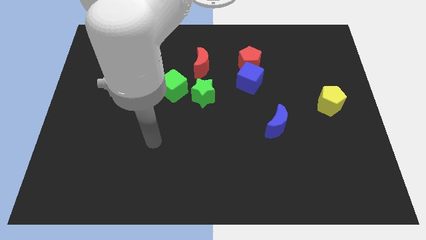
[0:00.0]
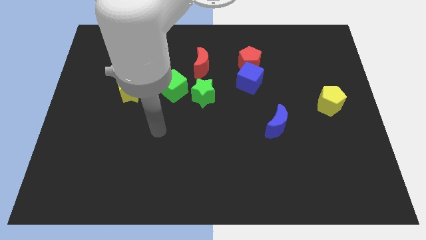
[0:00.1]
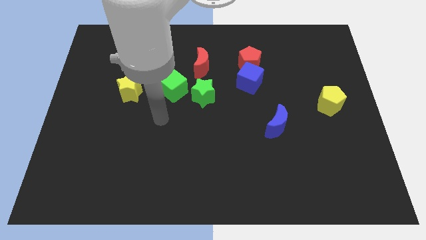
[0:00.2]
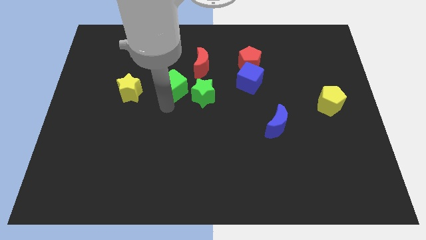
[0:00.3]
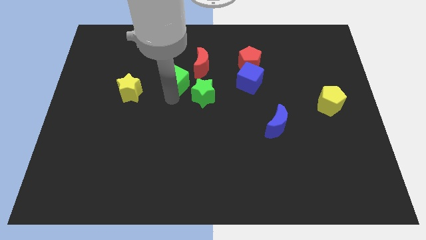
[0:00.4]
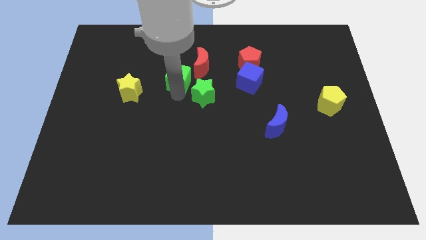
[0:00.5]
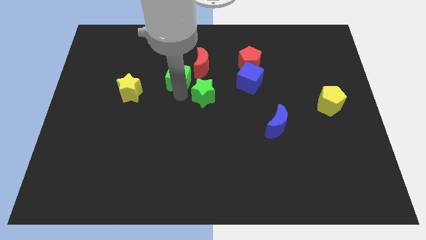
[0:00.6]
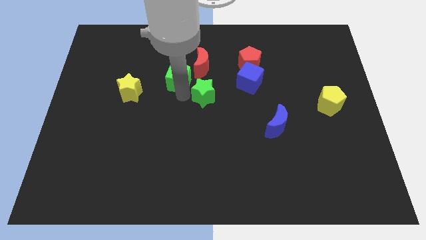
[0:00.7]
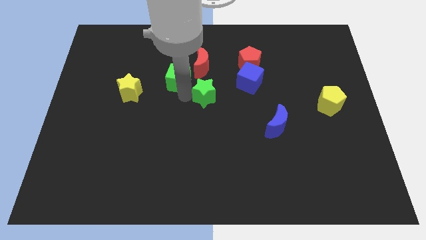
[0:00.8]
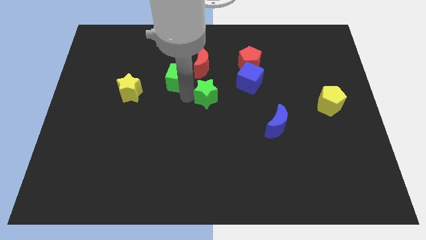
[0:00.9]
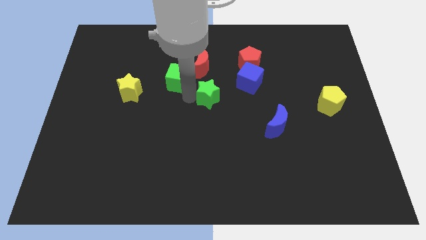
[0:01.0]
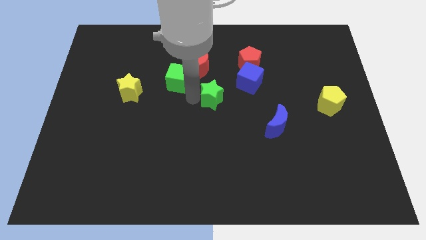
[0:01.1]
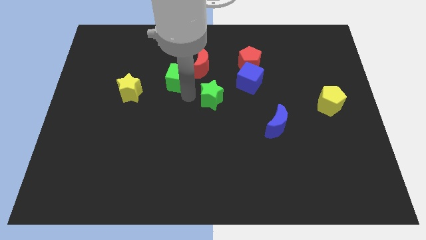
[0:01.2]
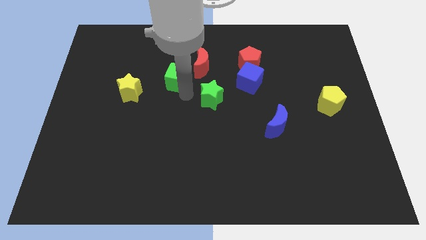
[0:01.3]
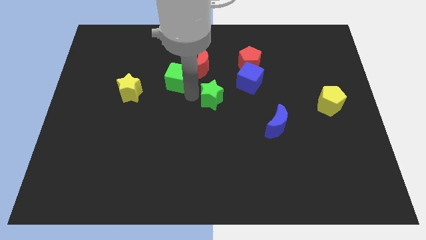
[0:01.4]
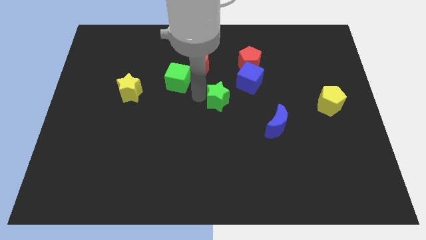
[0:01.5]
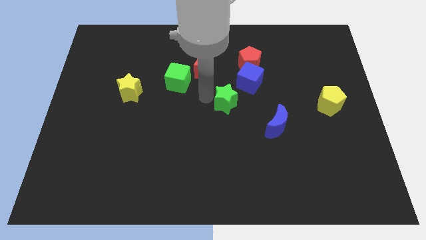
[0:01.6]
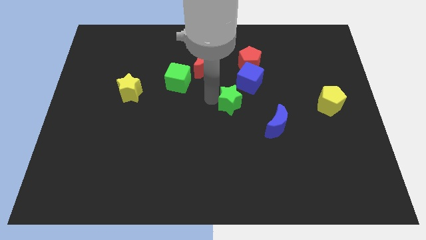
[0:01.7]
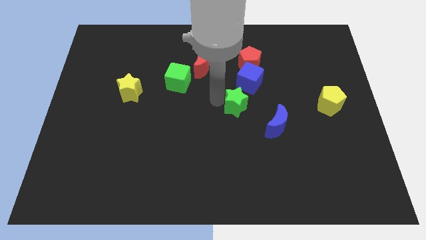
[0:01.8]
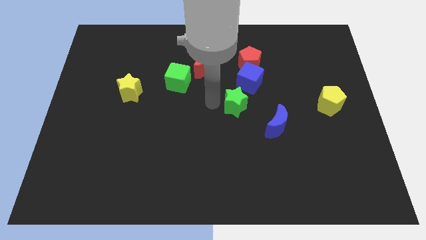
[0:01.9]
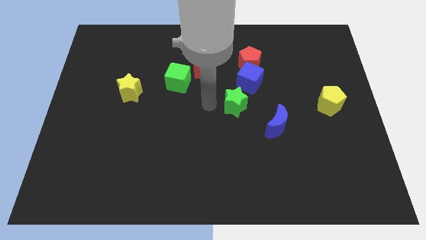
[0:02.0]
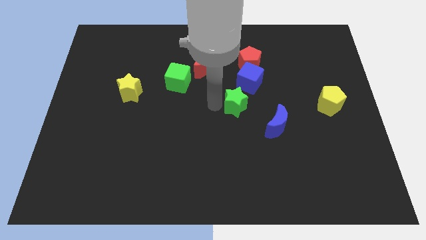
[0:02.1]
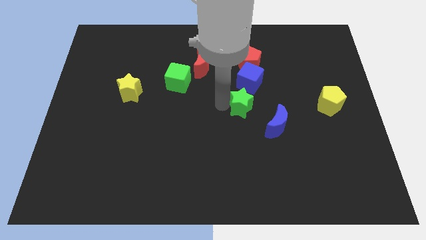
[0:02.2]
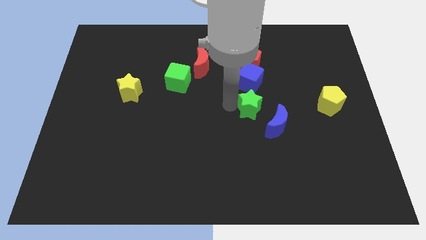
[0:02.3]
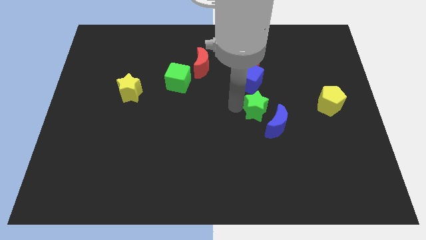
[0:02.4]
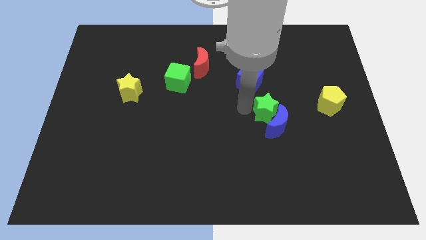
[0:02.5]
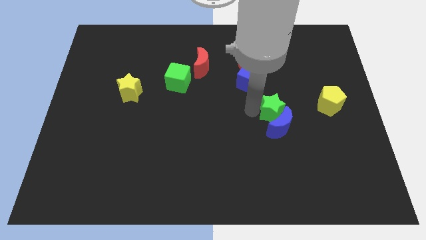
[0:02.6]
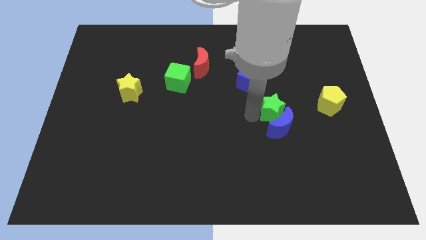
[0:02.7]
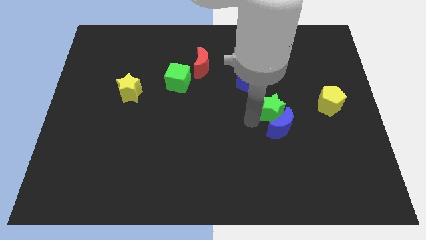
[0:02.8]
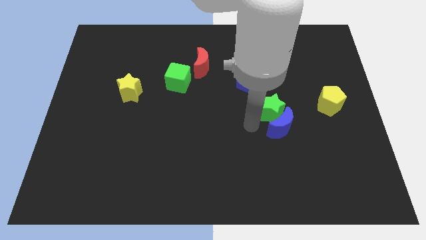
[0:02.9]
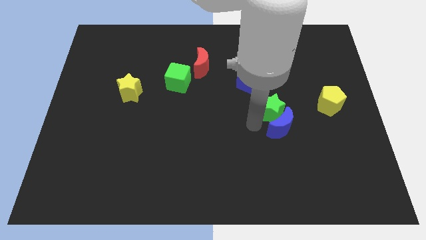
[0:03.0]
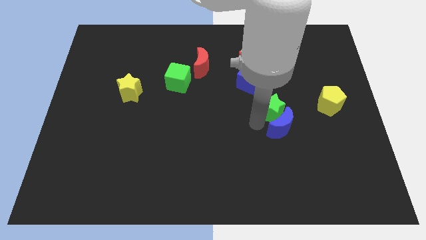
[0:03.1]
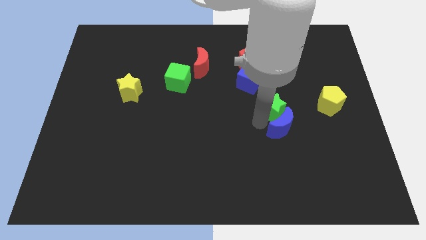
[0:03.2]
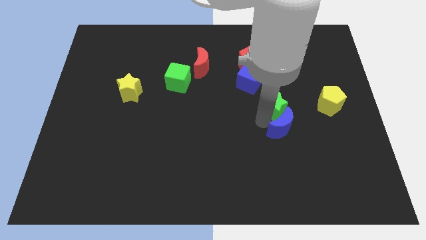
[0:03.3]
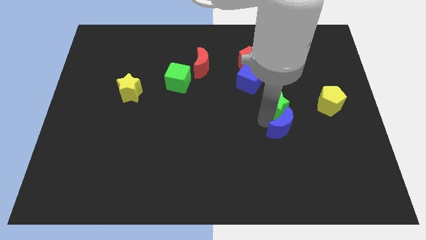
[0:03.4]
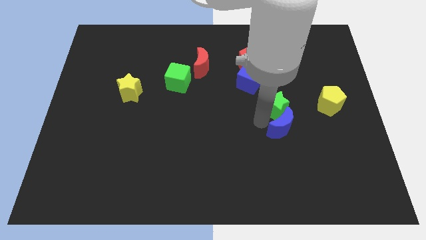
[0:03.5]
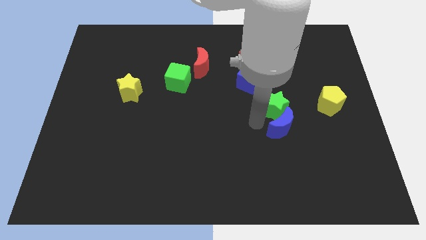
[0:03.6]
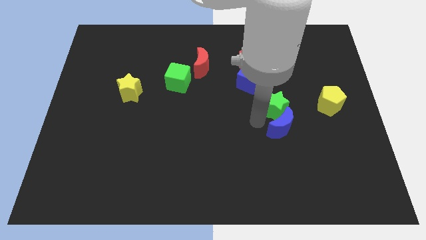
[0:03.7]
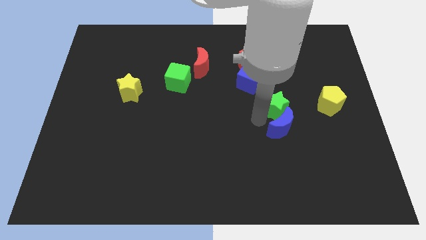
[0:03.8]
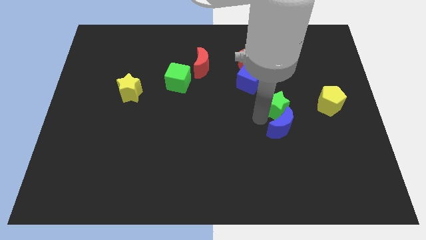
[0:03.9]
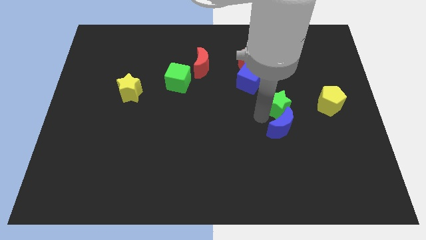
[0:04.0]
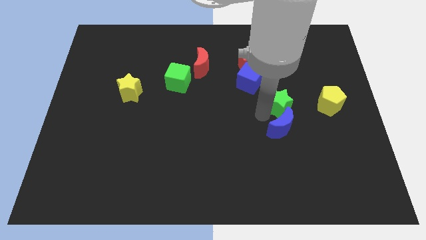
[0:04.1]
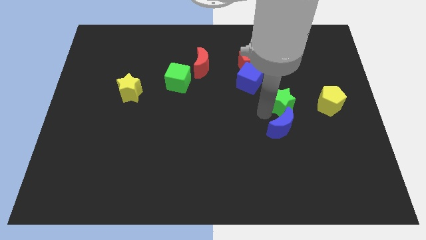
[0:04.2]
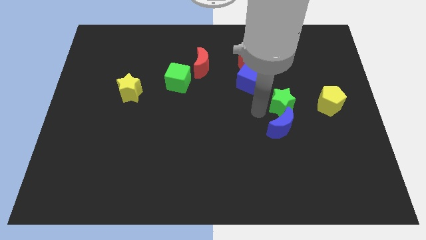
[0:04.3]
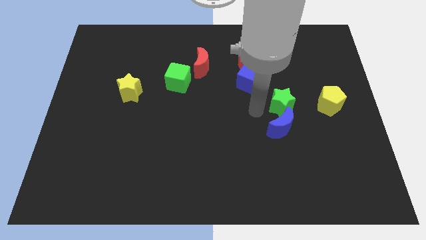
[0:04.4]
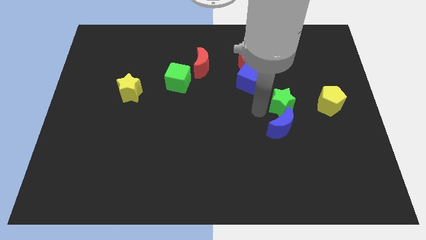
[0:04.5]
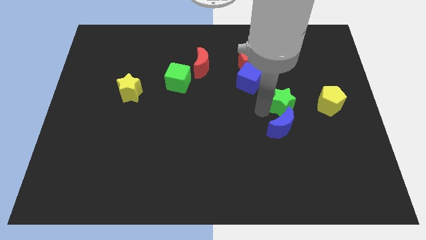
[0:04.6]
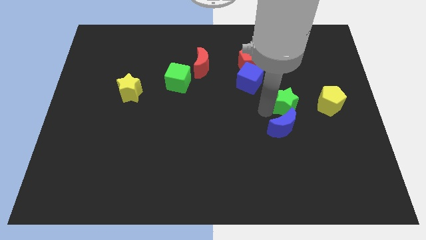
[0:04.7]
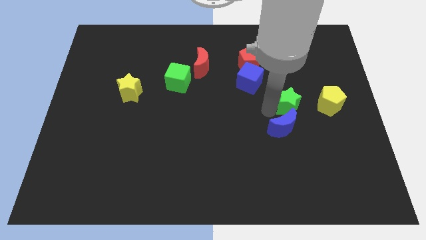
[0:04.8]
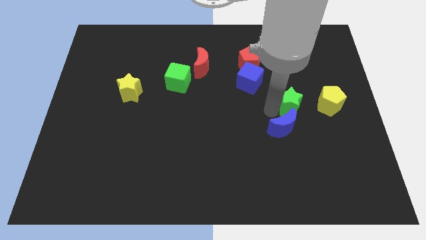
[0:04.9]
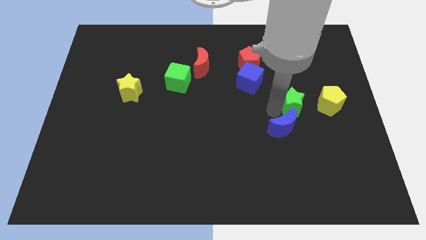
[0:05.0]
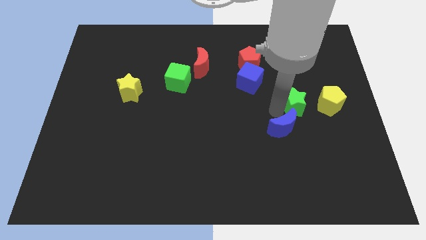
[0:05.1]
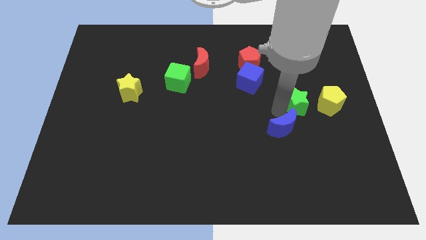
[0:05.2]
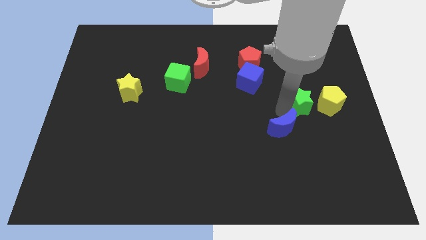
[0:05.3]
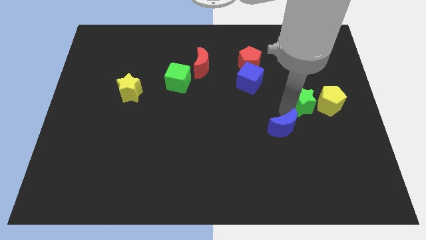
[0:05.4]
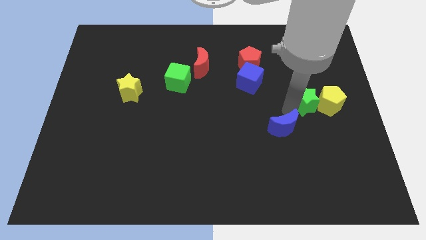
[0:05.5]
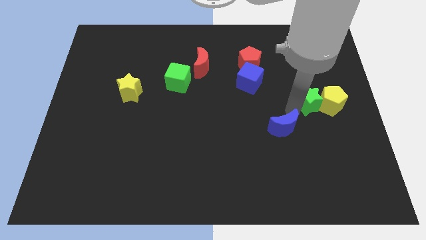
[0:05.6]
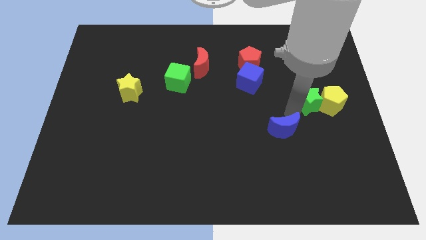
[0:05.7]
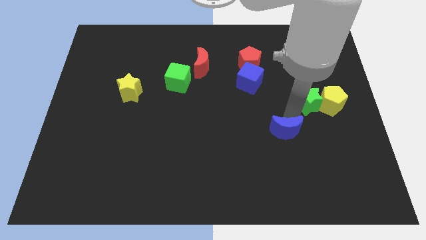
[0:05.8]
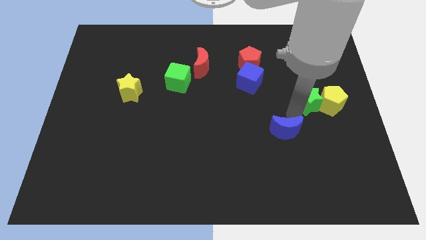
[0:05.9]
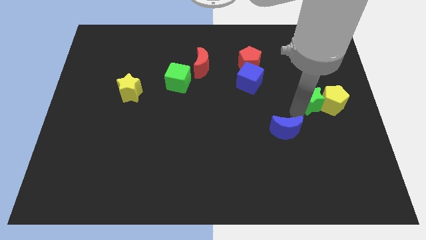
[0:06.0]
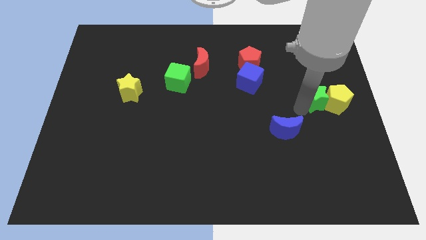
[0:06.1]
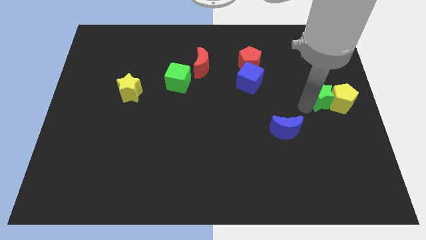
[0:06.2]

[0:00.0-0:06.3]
put the green star to the center right
